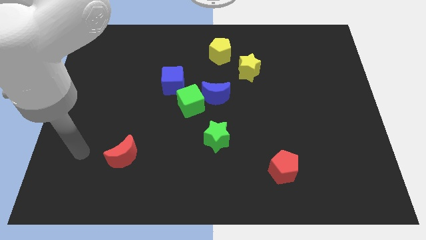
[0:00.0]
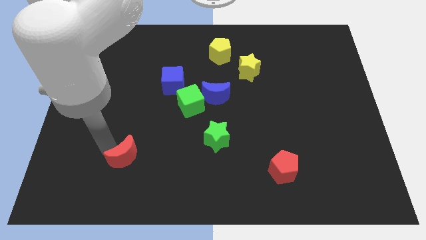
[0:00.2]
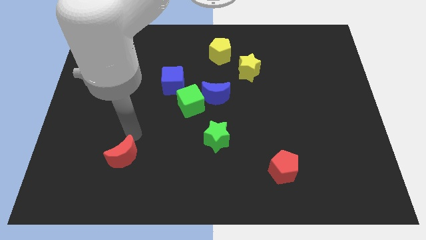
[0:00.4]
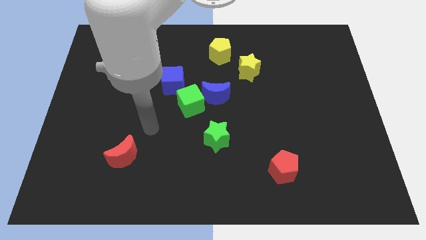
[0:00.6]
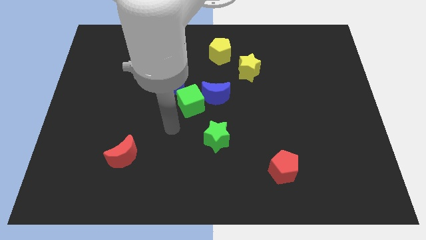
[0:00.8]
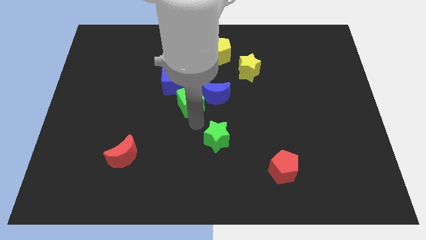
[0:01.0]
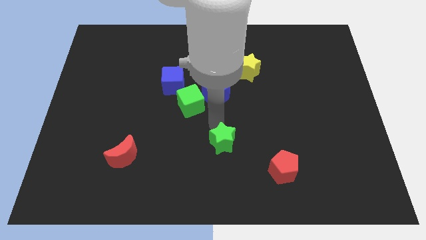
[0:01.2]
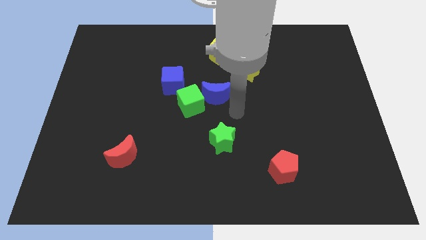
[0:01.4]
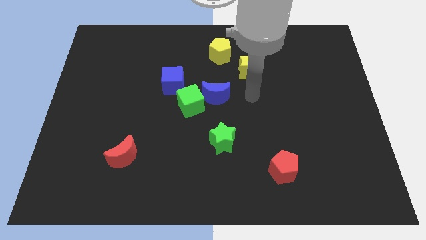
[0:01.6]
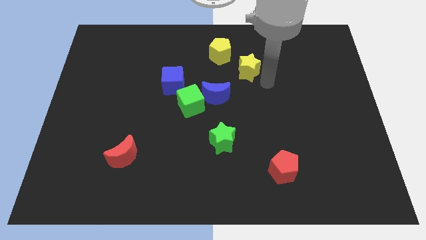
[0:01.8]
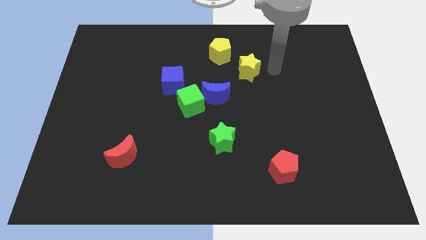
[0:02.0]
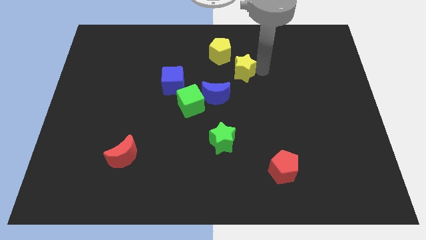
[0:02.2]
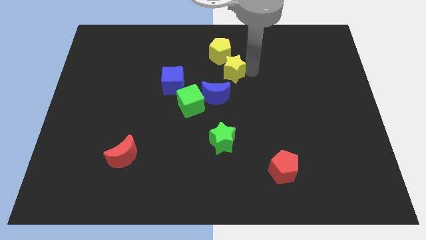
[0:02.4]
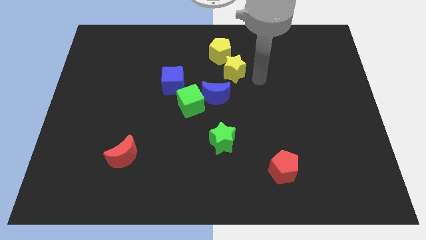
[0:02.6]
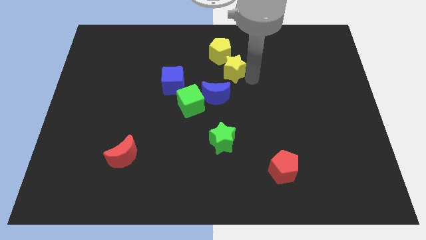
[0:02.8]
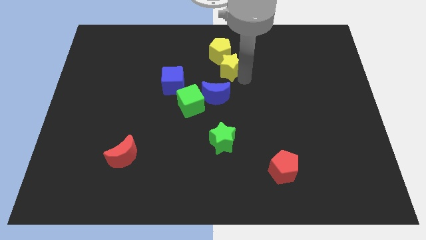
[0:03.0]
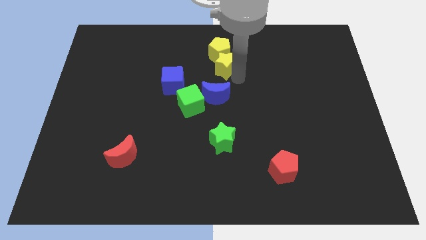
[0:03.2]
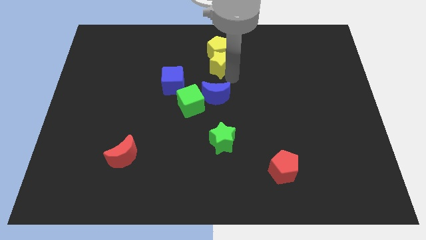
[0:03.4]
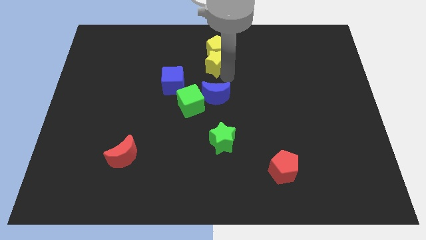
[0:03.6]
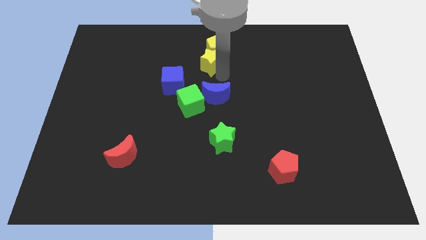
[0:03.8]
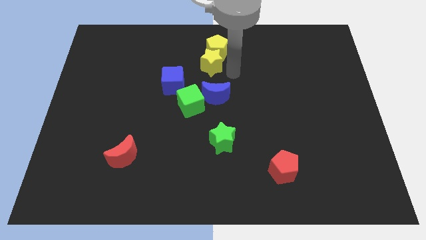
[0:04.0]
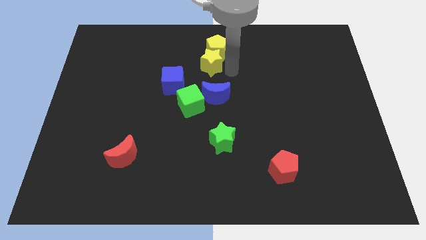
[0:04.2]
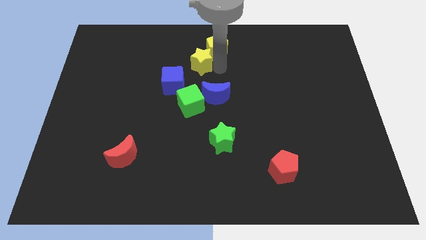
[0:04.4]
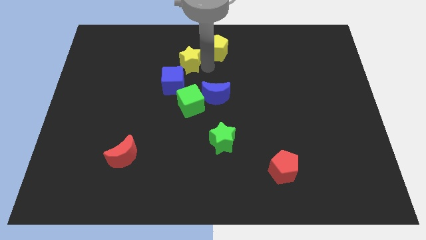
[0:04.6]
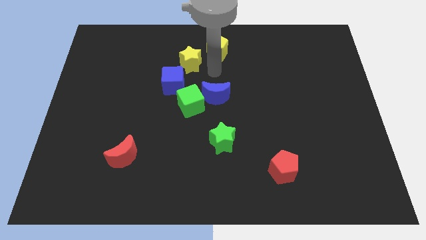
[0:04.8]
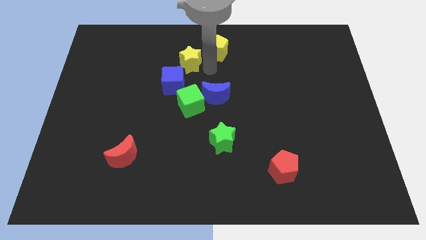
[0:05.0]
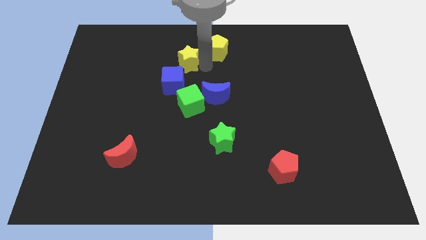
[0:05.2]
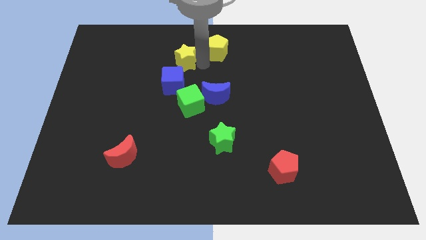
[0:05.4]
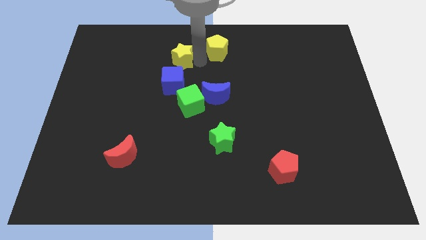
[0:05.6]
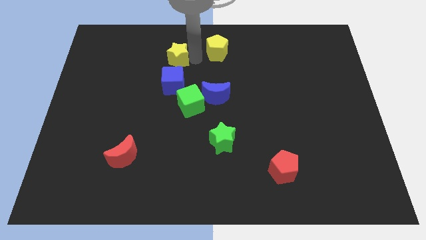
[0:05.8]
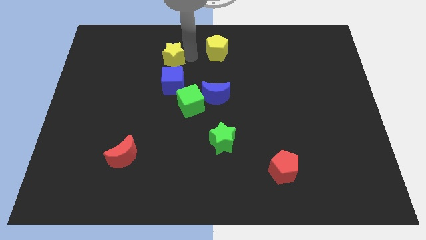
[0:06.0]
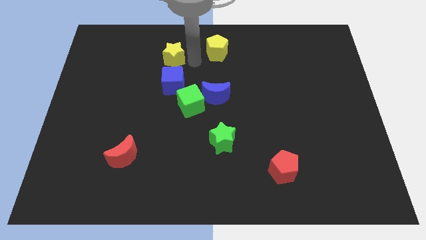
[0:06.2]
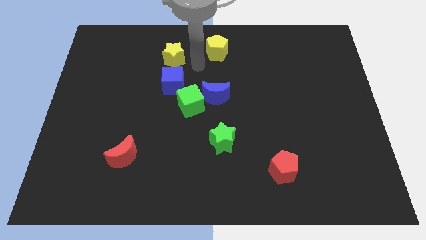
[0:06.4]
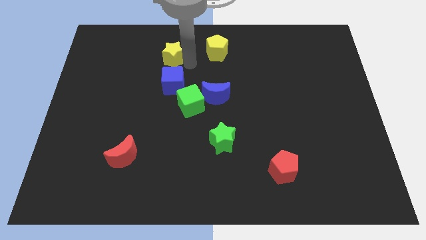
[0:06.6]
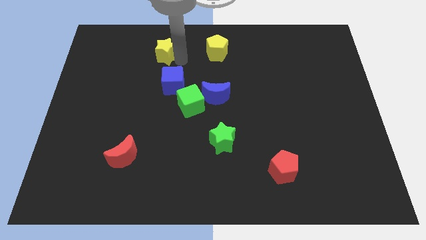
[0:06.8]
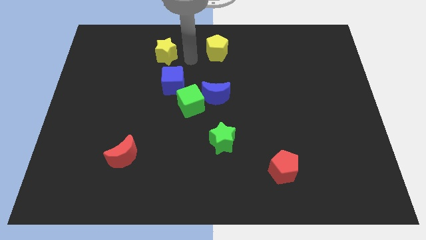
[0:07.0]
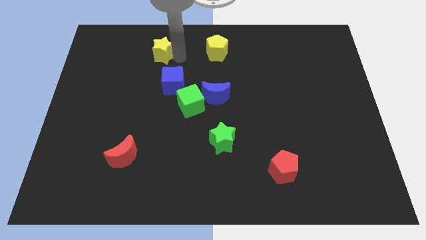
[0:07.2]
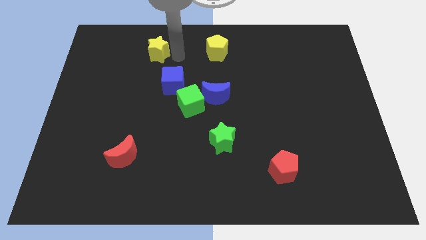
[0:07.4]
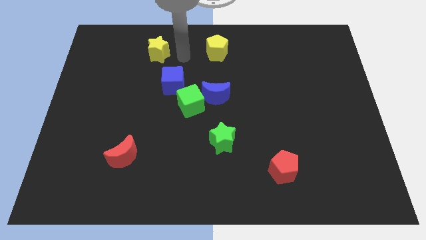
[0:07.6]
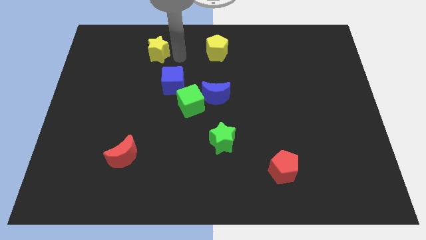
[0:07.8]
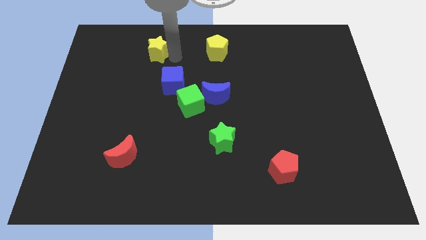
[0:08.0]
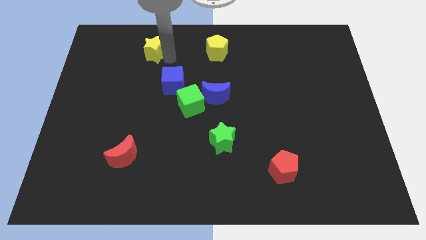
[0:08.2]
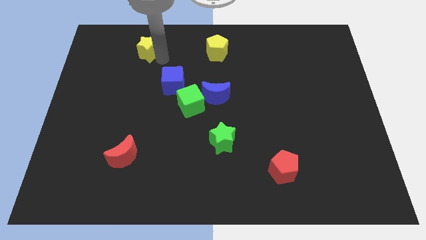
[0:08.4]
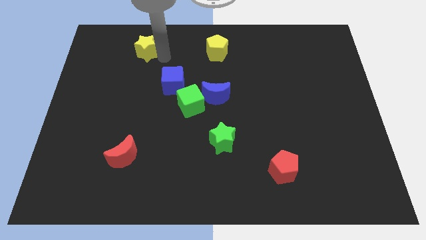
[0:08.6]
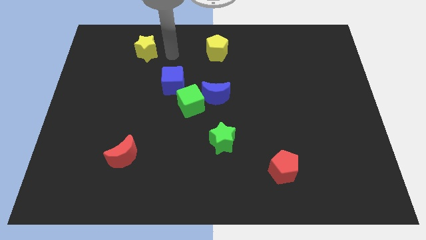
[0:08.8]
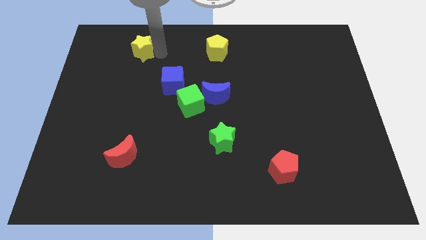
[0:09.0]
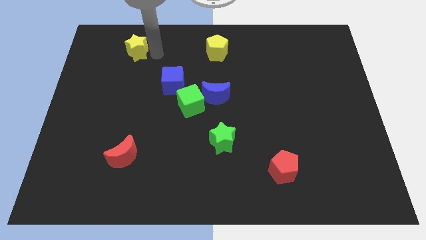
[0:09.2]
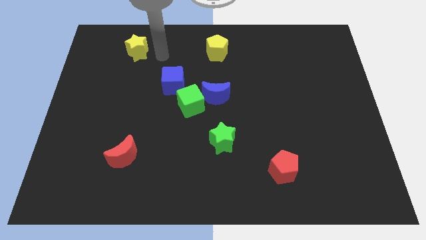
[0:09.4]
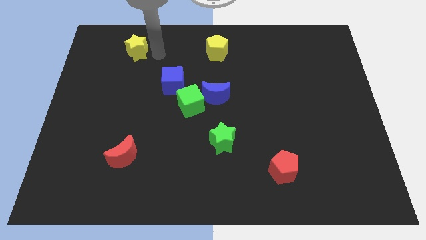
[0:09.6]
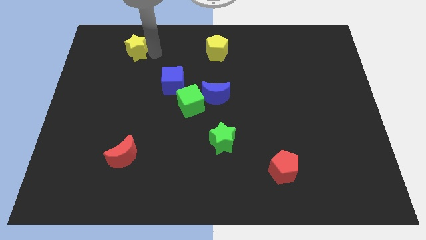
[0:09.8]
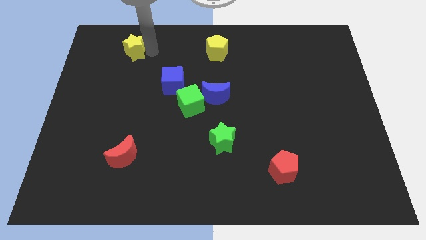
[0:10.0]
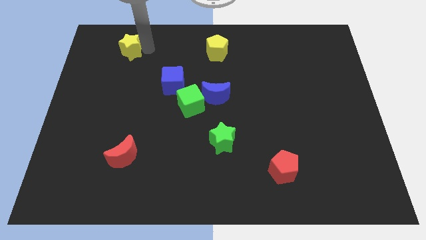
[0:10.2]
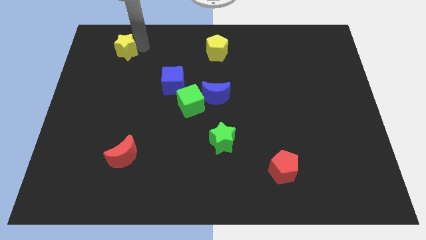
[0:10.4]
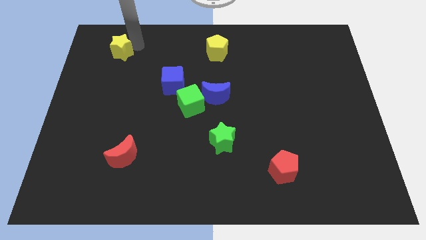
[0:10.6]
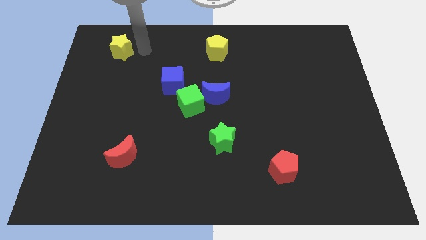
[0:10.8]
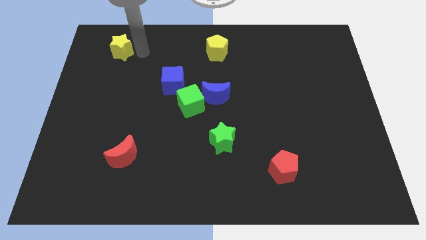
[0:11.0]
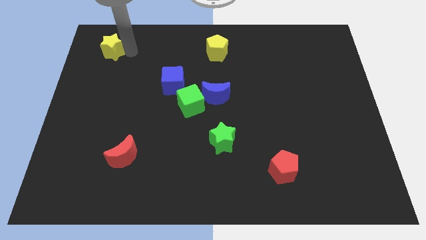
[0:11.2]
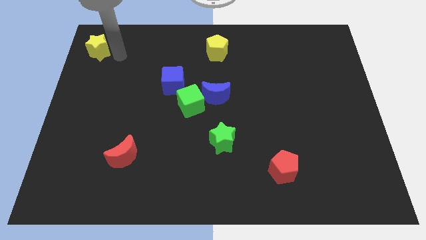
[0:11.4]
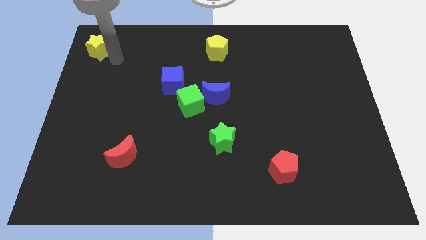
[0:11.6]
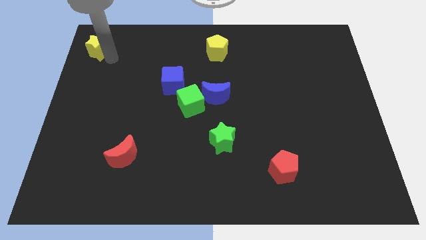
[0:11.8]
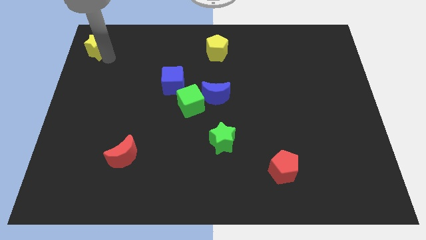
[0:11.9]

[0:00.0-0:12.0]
slide the yellow star to the top left

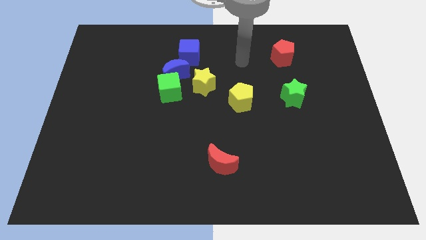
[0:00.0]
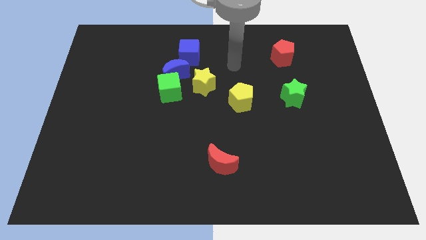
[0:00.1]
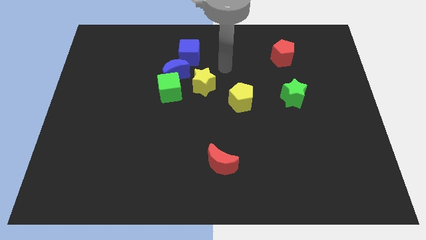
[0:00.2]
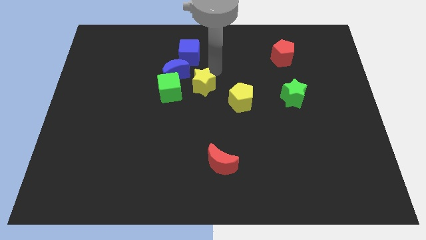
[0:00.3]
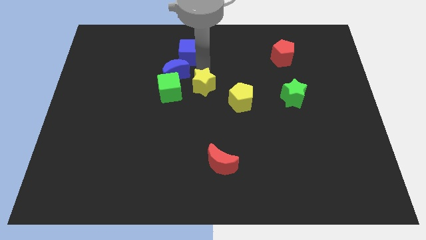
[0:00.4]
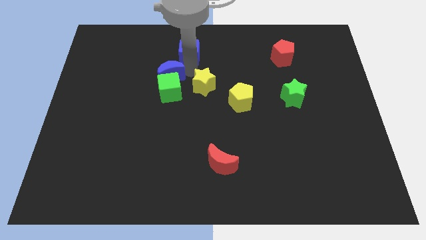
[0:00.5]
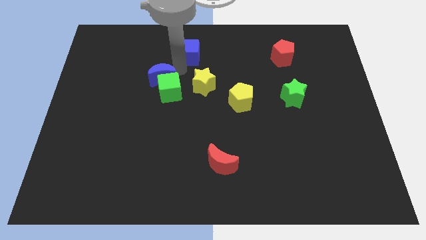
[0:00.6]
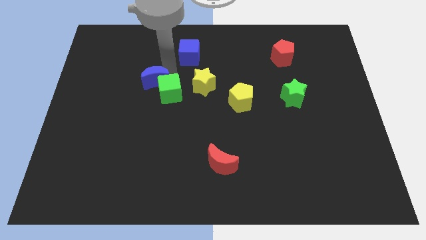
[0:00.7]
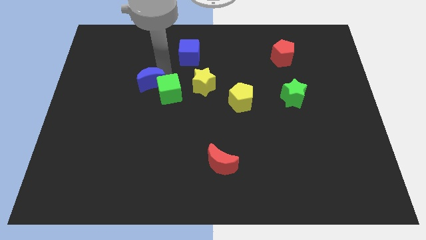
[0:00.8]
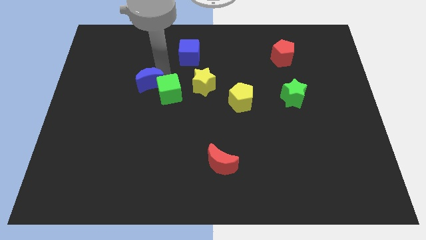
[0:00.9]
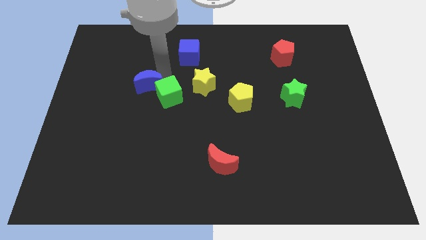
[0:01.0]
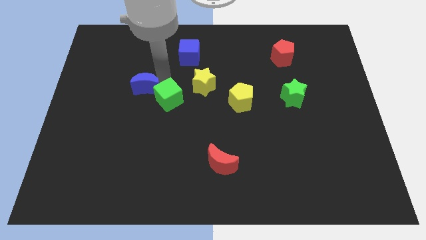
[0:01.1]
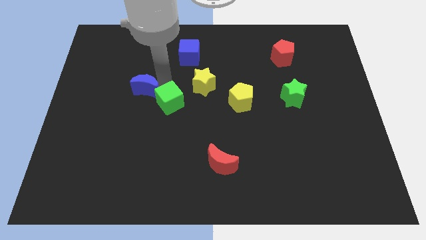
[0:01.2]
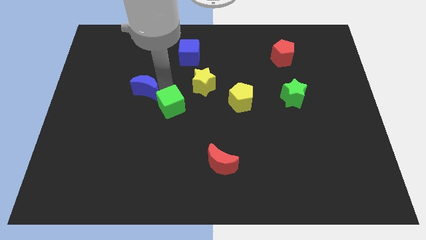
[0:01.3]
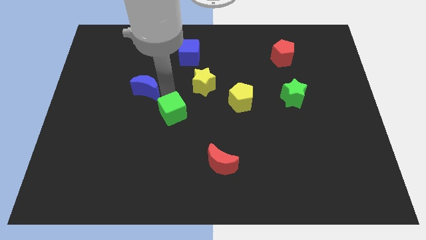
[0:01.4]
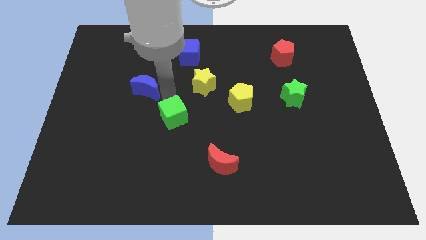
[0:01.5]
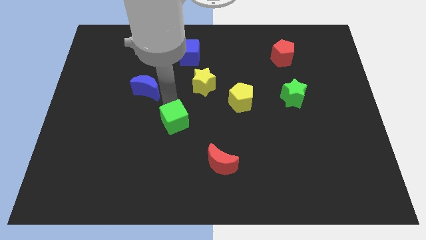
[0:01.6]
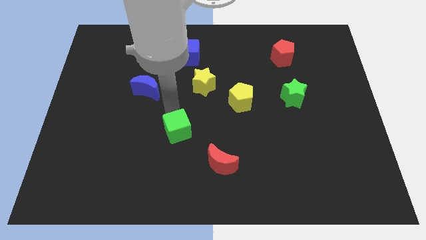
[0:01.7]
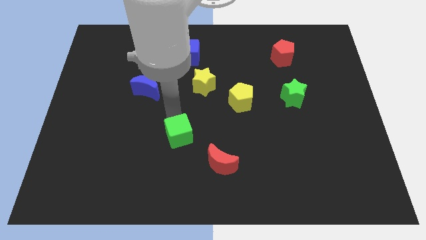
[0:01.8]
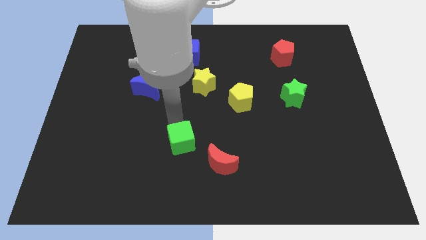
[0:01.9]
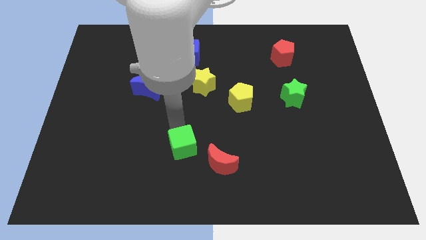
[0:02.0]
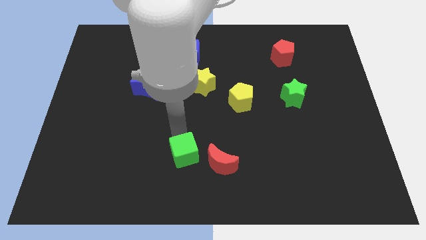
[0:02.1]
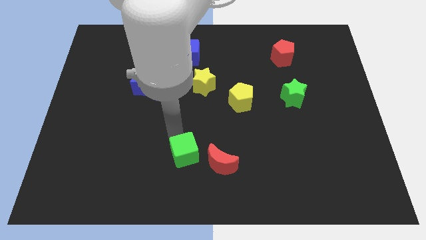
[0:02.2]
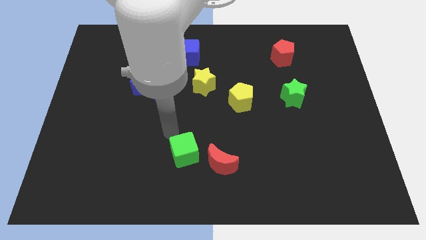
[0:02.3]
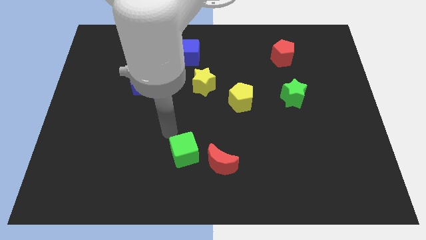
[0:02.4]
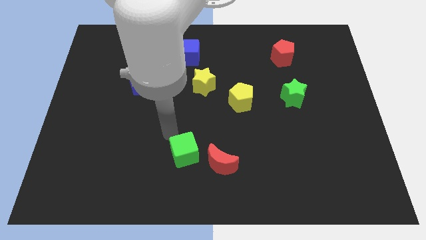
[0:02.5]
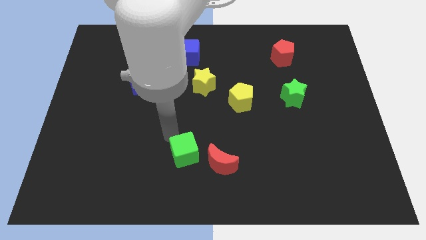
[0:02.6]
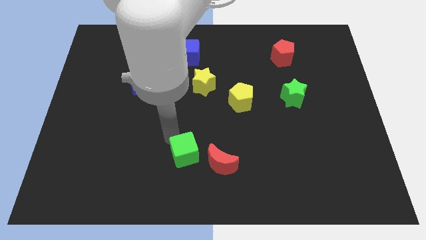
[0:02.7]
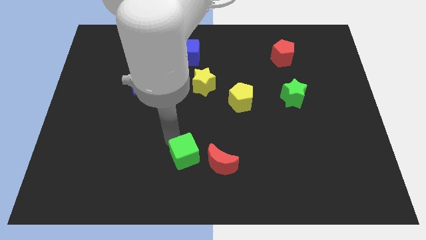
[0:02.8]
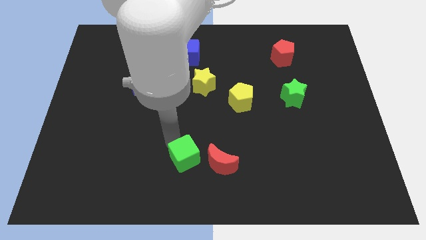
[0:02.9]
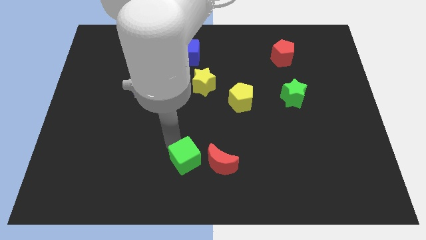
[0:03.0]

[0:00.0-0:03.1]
move the green cube to the bottom
